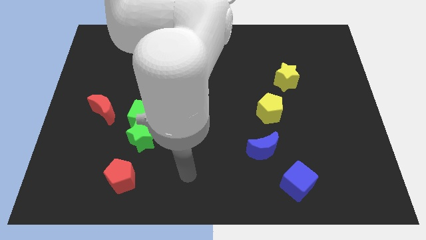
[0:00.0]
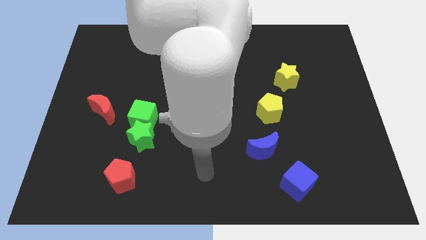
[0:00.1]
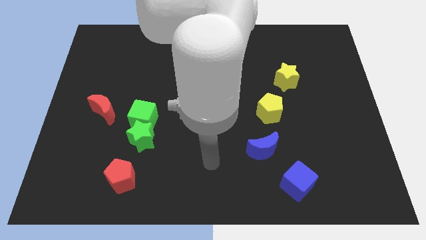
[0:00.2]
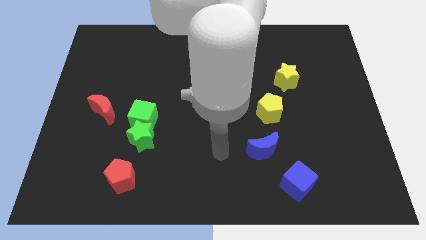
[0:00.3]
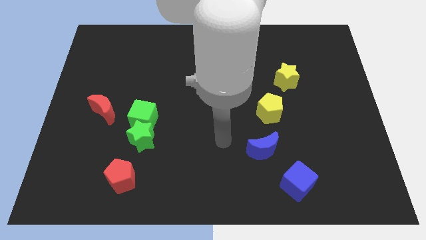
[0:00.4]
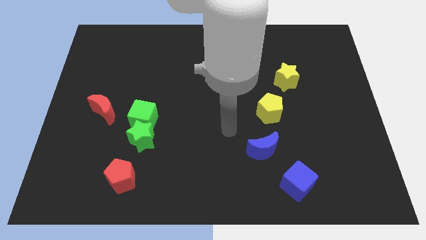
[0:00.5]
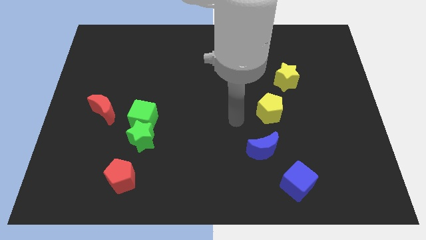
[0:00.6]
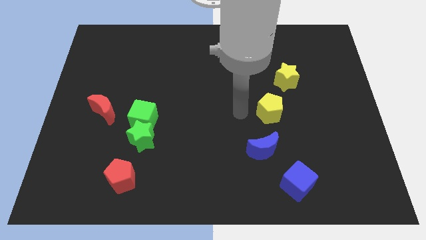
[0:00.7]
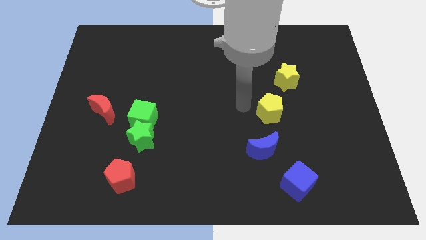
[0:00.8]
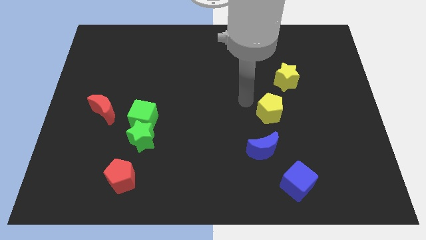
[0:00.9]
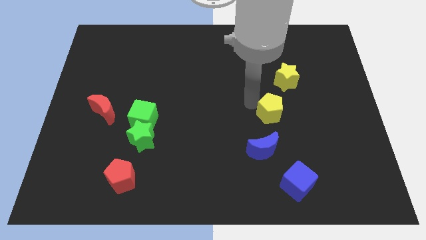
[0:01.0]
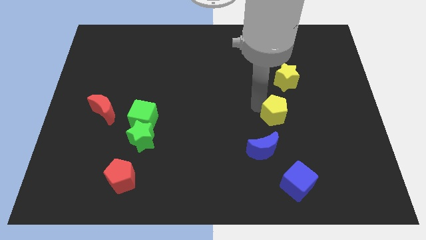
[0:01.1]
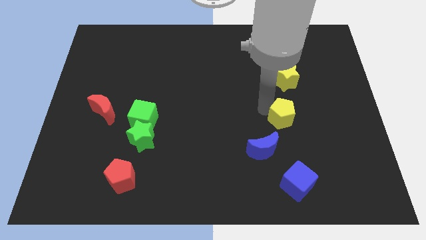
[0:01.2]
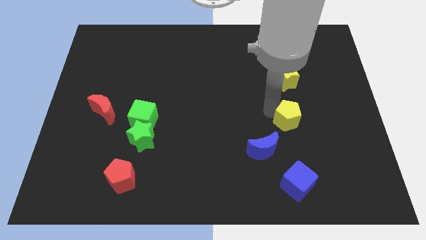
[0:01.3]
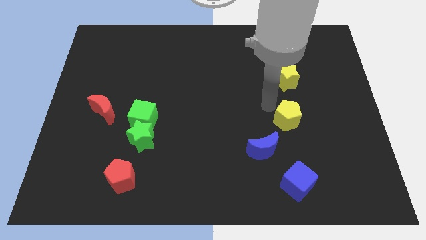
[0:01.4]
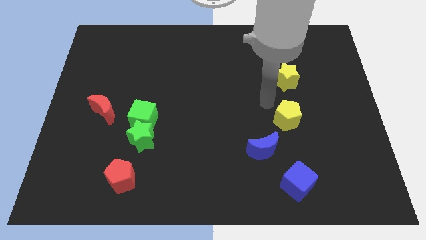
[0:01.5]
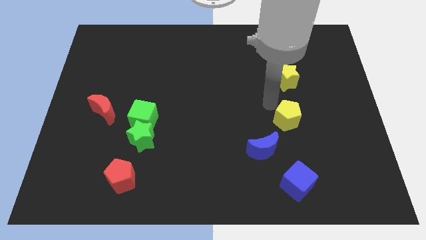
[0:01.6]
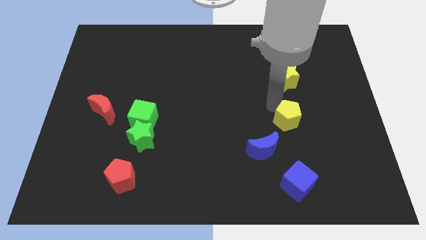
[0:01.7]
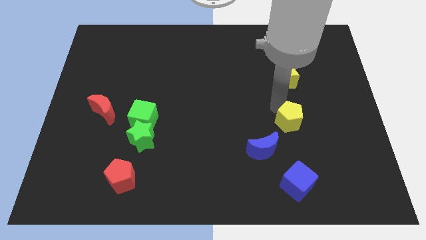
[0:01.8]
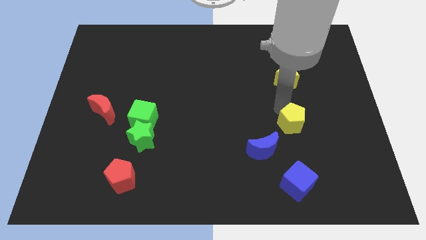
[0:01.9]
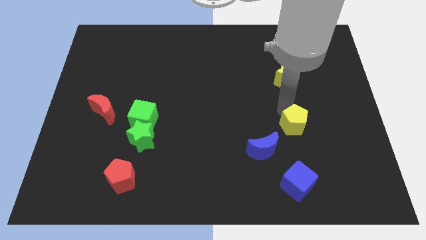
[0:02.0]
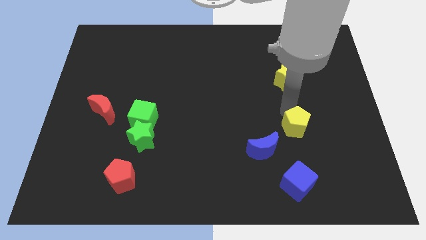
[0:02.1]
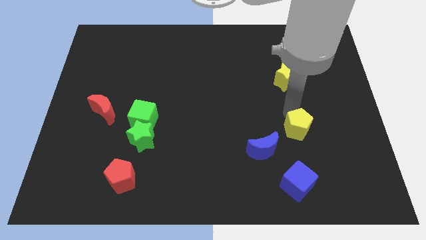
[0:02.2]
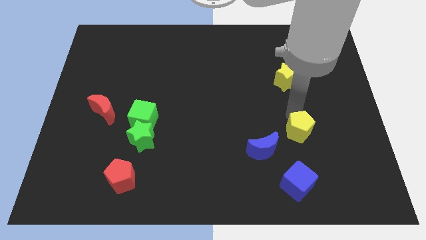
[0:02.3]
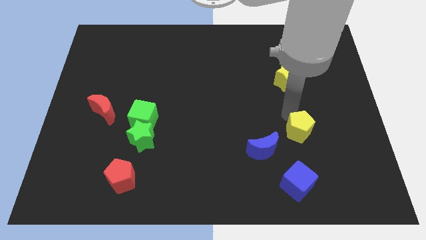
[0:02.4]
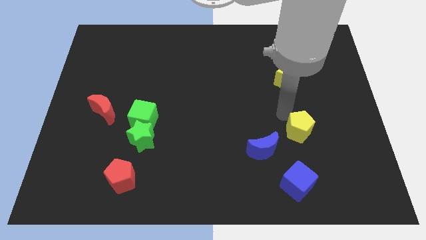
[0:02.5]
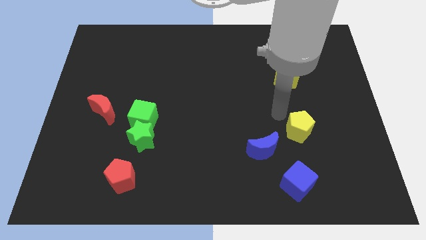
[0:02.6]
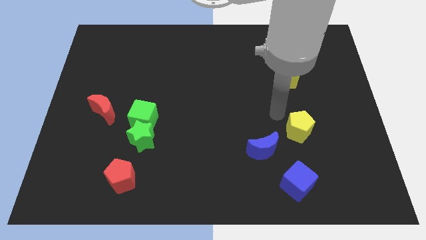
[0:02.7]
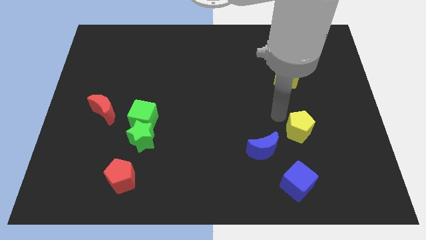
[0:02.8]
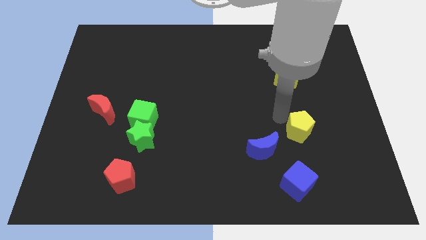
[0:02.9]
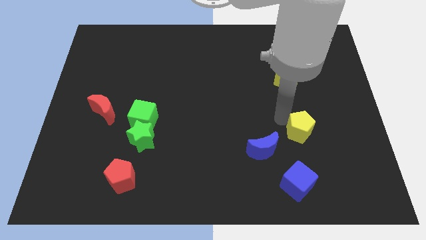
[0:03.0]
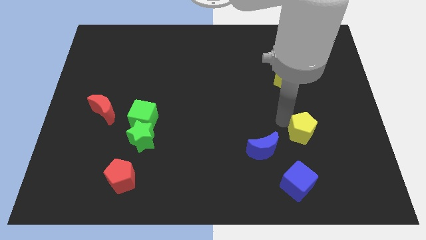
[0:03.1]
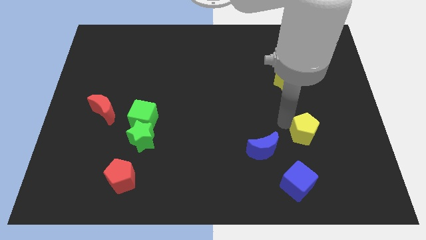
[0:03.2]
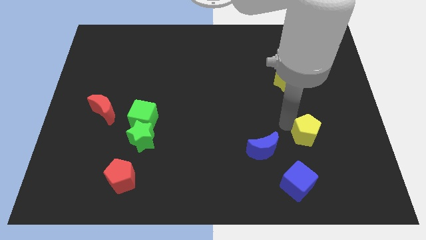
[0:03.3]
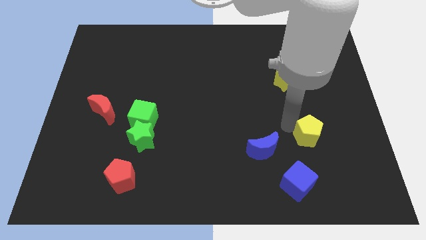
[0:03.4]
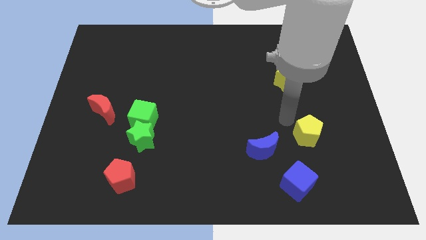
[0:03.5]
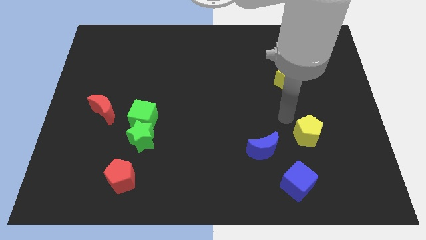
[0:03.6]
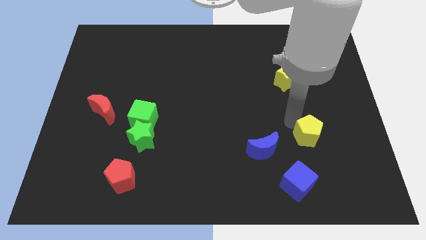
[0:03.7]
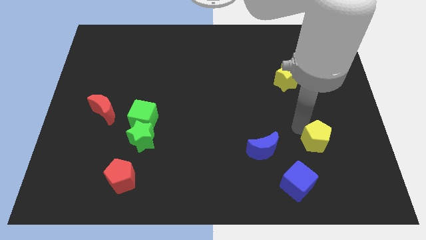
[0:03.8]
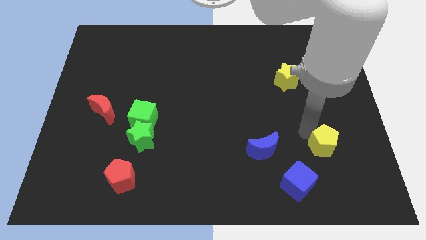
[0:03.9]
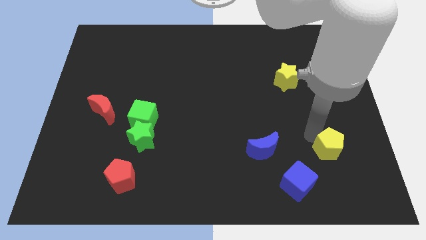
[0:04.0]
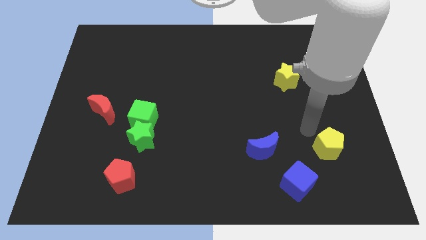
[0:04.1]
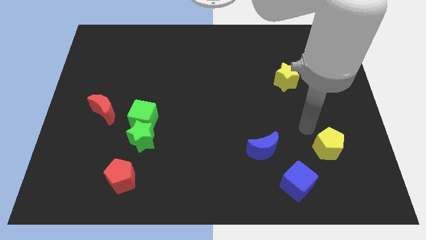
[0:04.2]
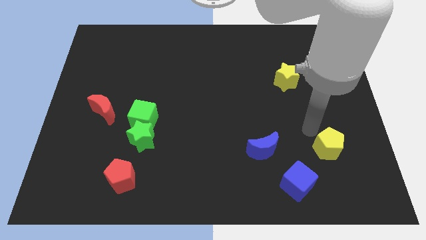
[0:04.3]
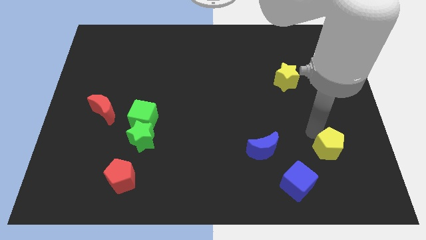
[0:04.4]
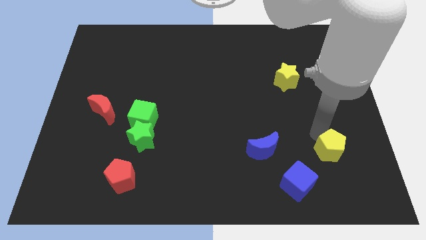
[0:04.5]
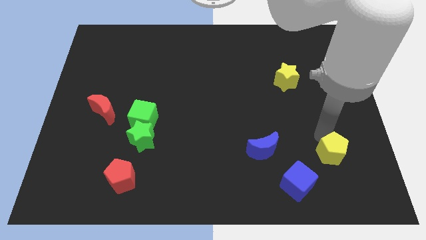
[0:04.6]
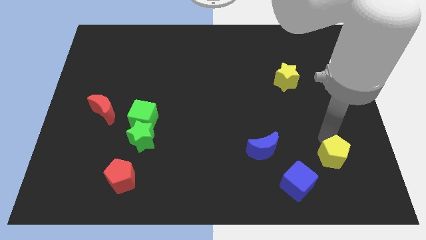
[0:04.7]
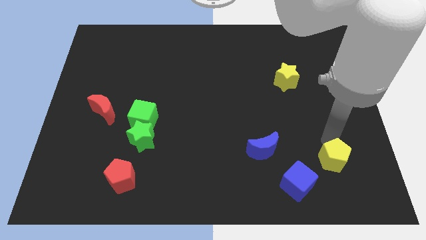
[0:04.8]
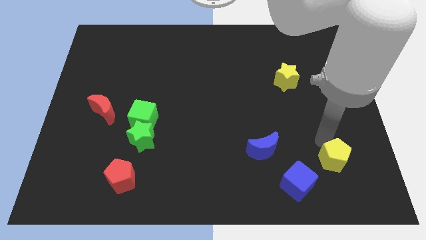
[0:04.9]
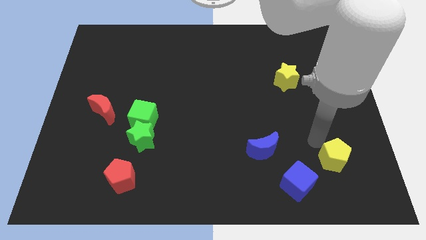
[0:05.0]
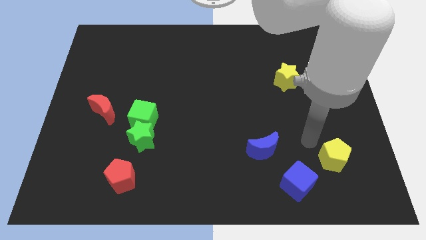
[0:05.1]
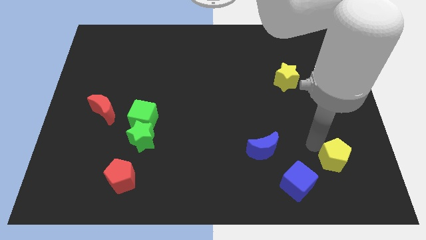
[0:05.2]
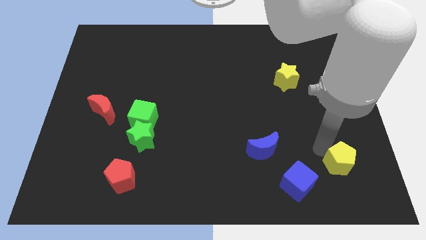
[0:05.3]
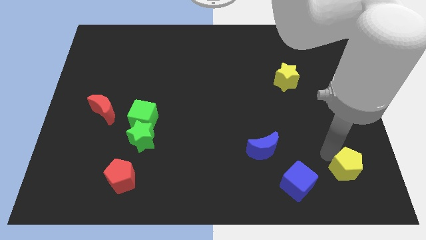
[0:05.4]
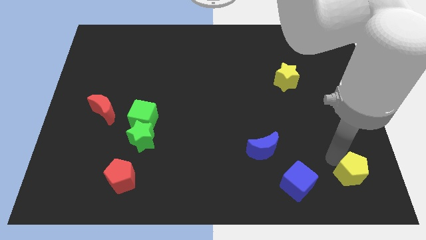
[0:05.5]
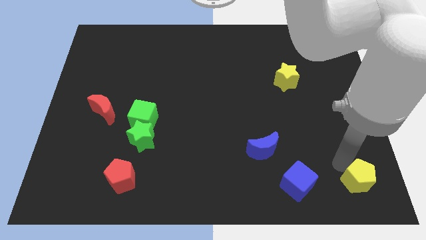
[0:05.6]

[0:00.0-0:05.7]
slide the yellow pentagon to the bottom right corner
